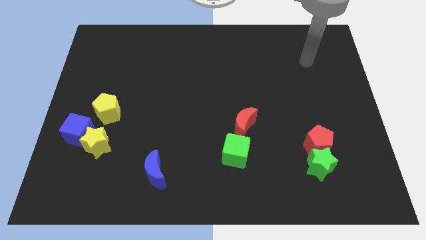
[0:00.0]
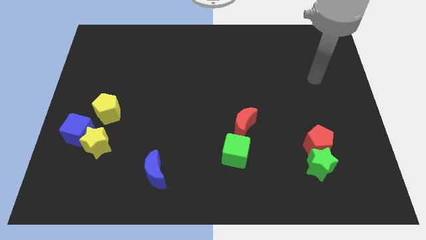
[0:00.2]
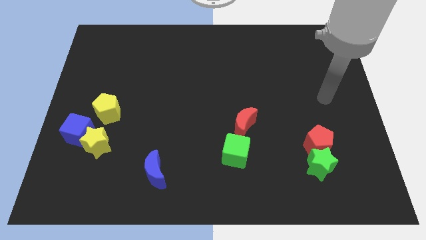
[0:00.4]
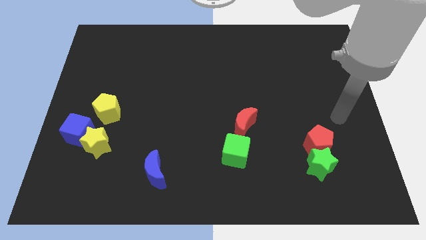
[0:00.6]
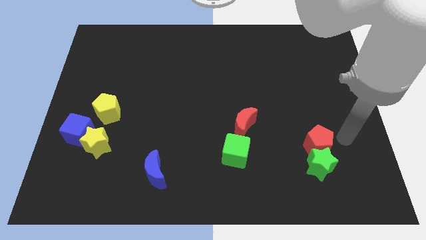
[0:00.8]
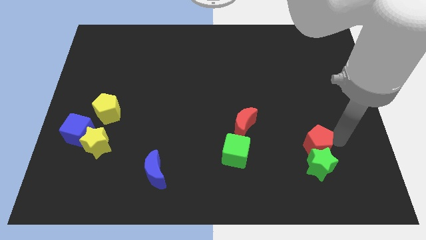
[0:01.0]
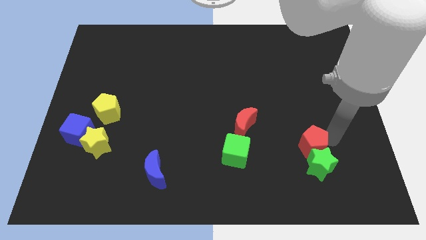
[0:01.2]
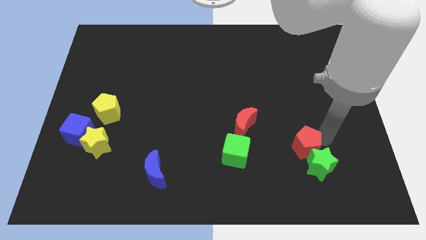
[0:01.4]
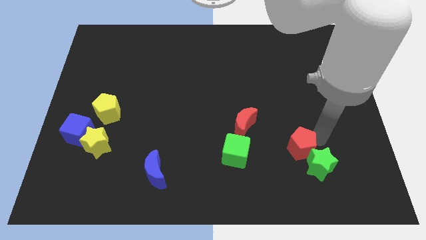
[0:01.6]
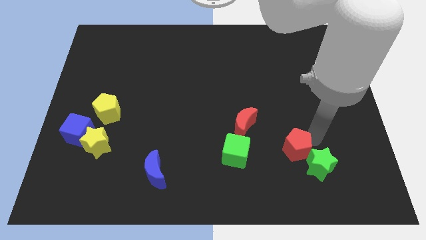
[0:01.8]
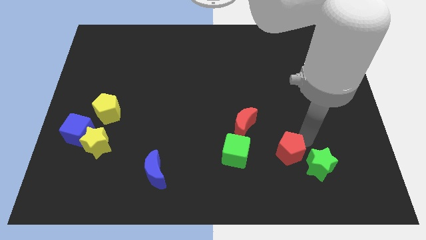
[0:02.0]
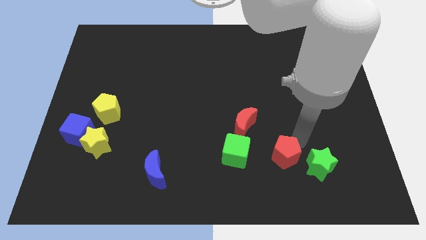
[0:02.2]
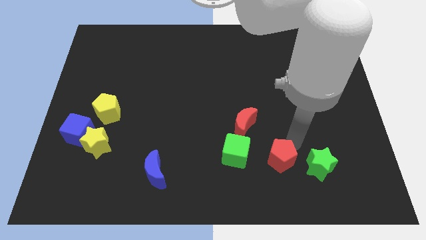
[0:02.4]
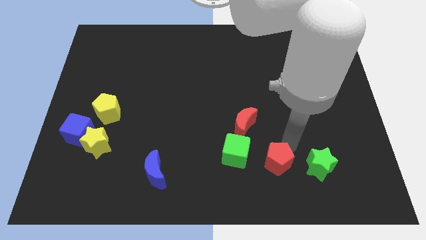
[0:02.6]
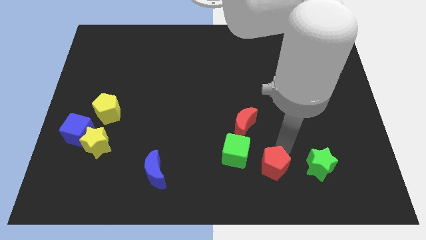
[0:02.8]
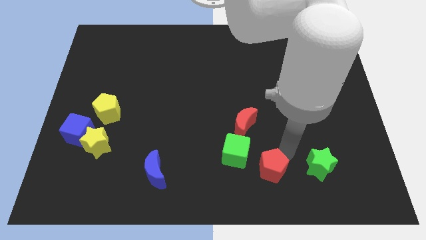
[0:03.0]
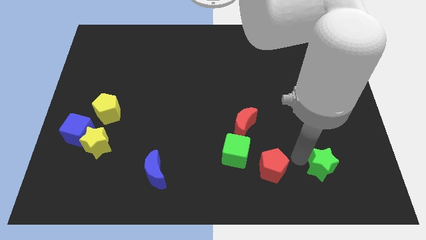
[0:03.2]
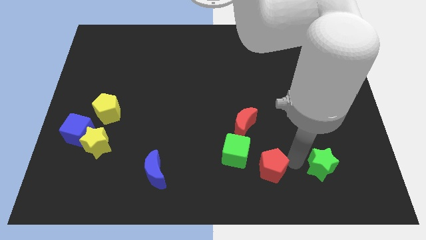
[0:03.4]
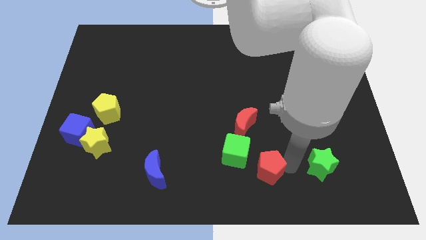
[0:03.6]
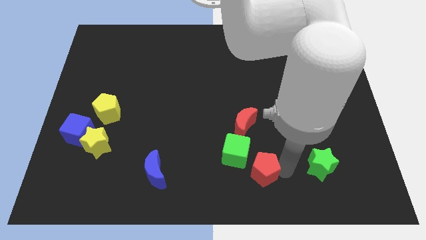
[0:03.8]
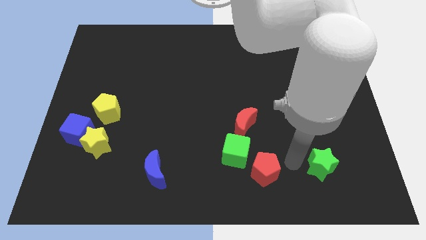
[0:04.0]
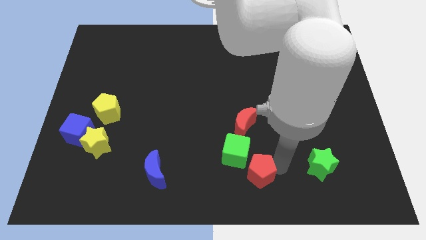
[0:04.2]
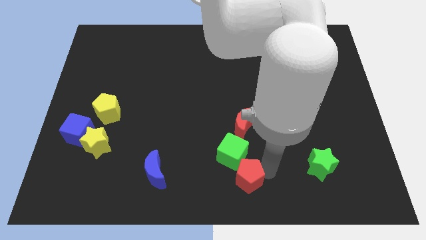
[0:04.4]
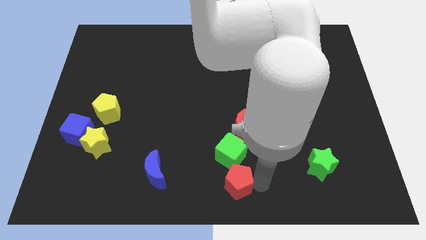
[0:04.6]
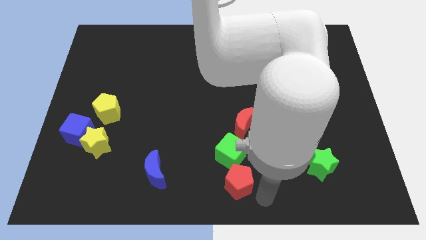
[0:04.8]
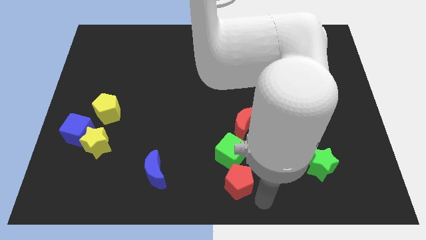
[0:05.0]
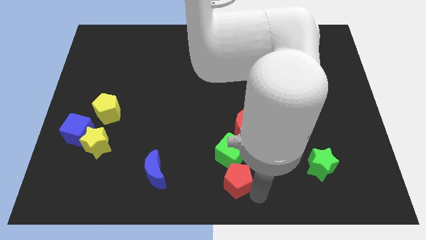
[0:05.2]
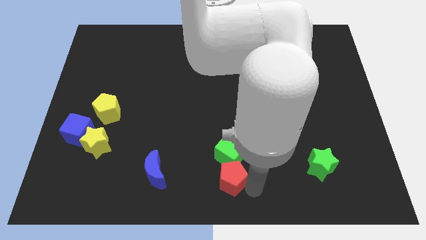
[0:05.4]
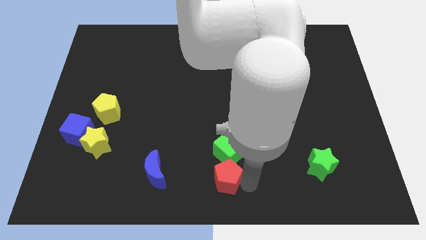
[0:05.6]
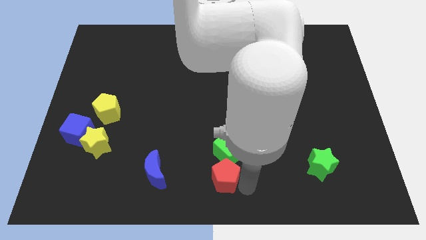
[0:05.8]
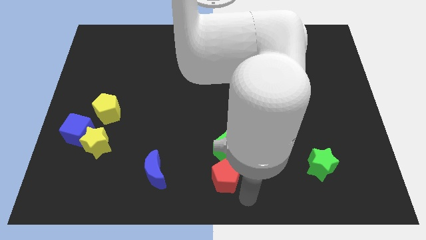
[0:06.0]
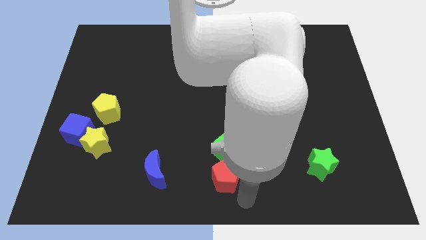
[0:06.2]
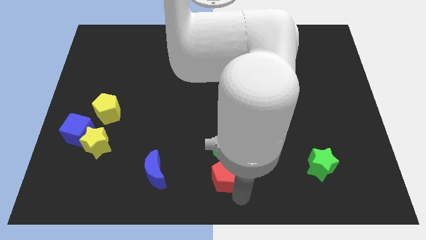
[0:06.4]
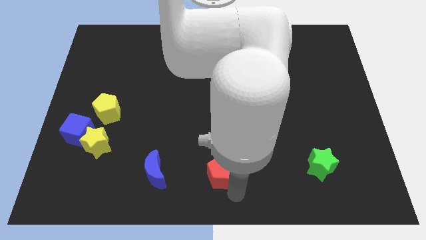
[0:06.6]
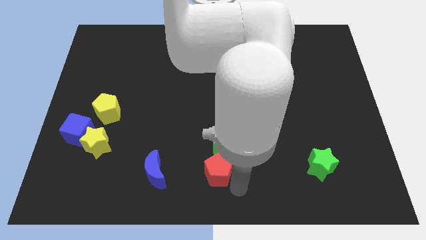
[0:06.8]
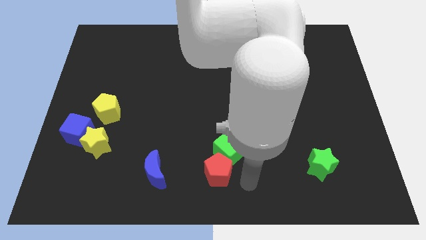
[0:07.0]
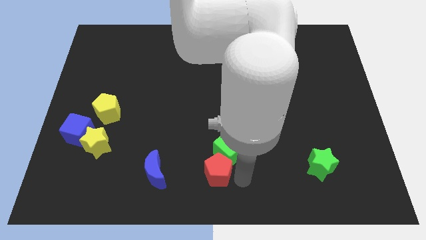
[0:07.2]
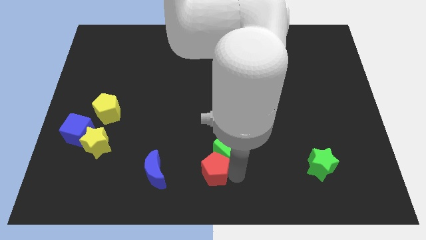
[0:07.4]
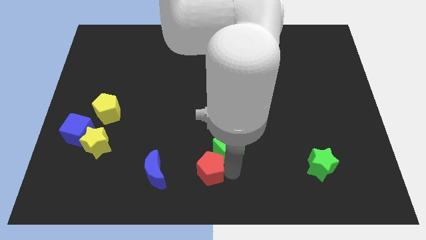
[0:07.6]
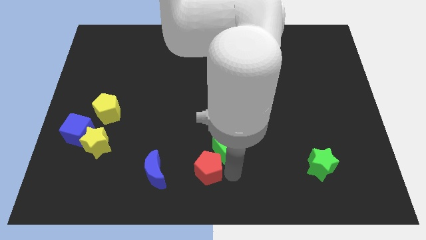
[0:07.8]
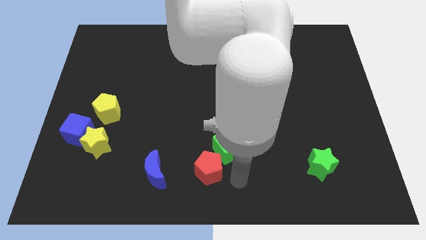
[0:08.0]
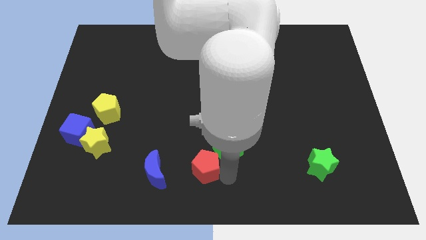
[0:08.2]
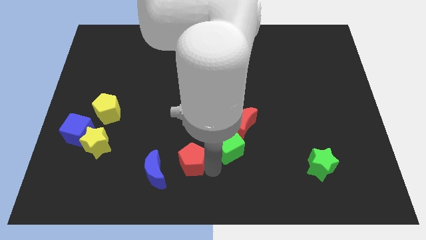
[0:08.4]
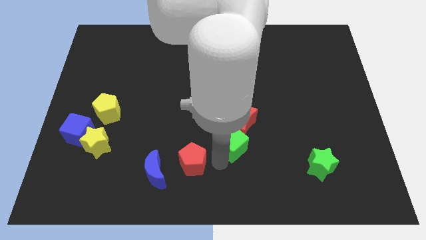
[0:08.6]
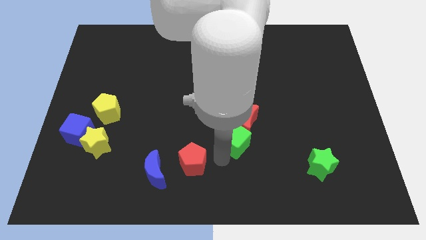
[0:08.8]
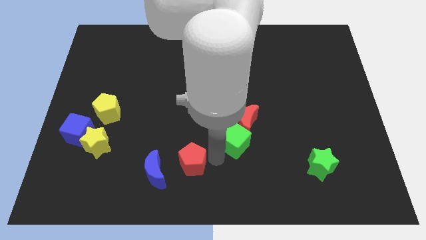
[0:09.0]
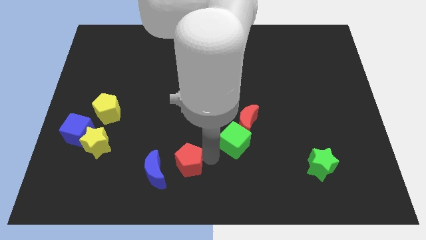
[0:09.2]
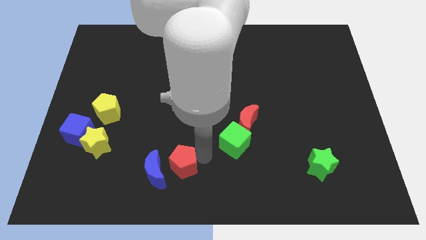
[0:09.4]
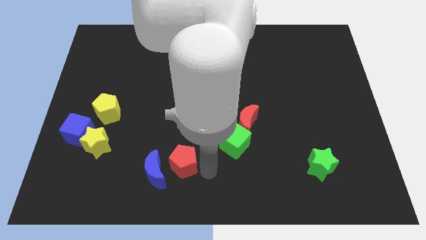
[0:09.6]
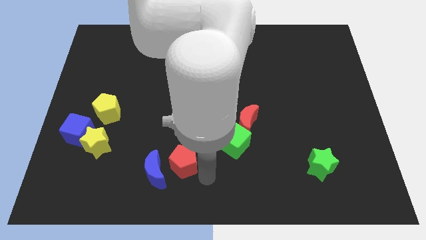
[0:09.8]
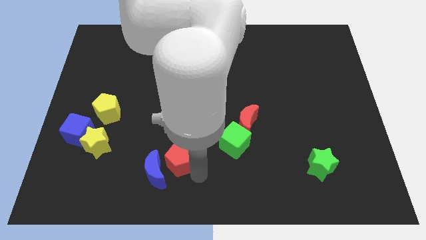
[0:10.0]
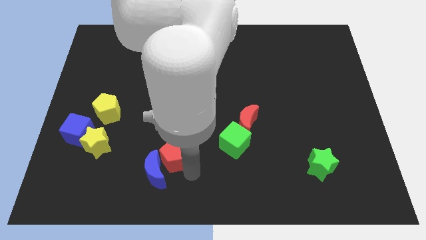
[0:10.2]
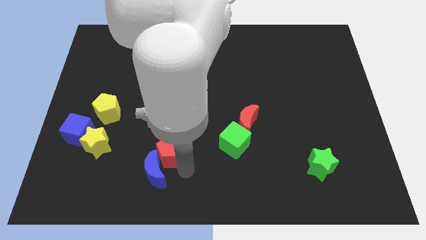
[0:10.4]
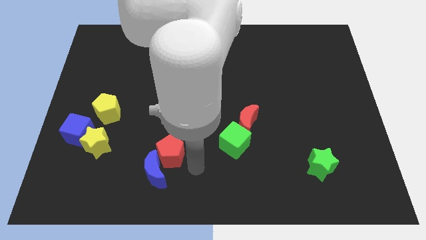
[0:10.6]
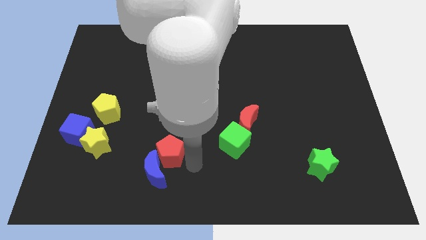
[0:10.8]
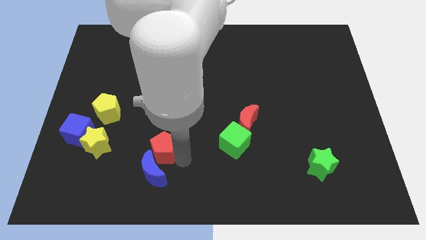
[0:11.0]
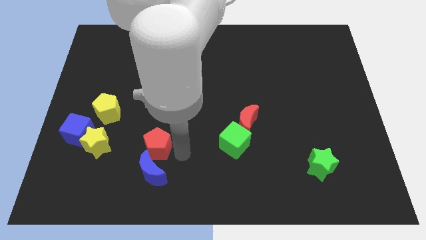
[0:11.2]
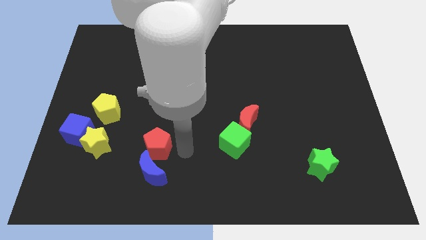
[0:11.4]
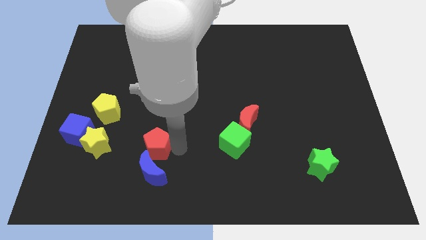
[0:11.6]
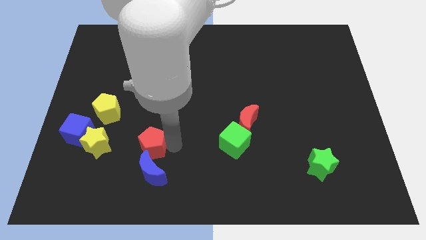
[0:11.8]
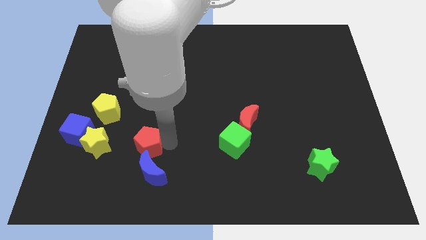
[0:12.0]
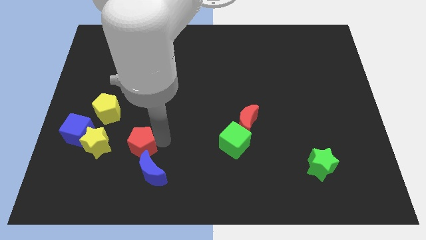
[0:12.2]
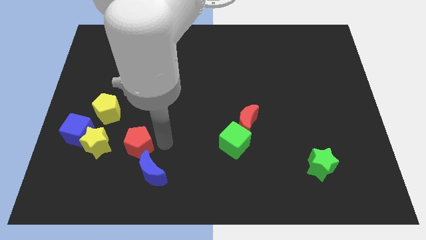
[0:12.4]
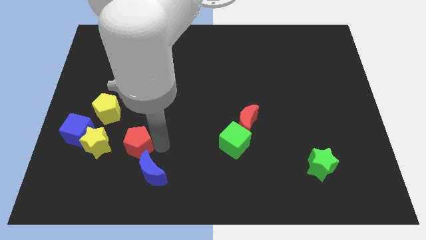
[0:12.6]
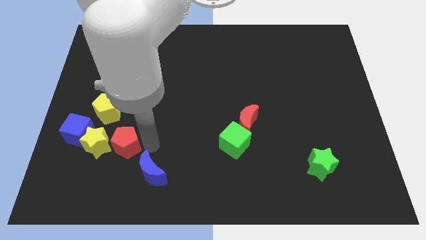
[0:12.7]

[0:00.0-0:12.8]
put the red pentagon close to the yellow star
